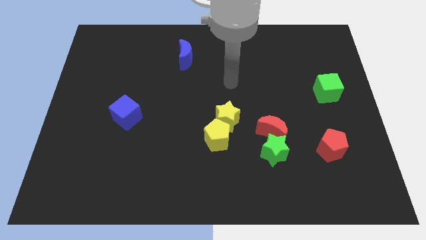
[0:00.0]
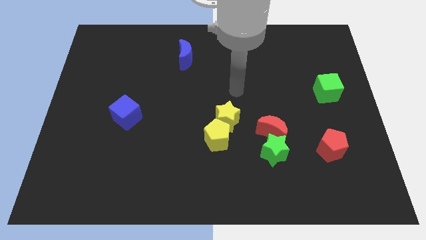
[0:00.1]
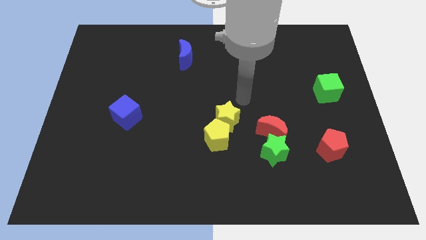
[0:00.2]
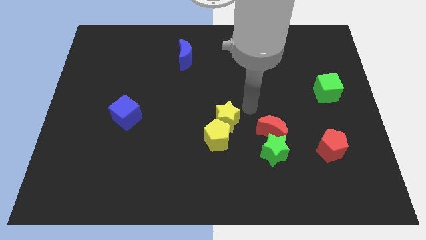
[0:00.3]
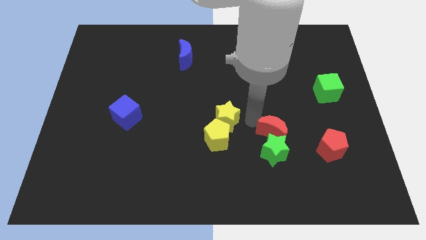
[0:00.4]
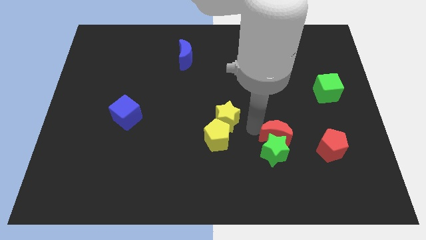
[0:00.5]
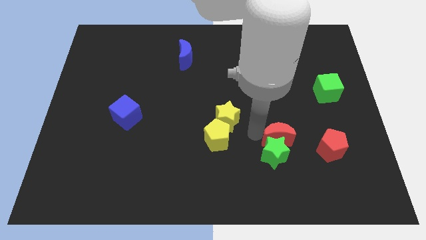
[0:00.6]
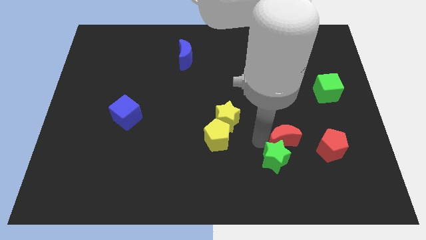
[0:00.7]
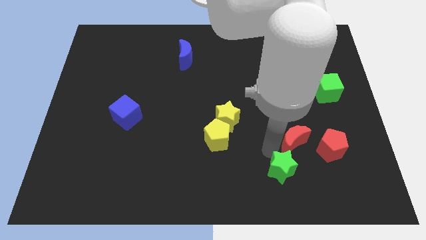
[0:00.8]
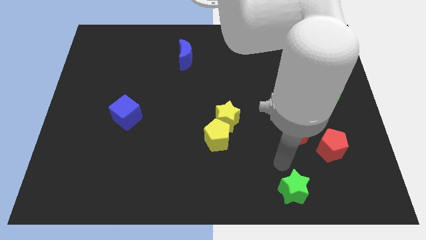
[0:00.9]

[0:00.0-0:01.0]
move the red moon away from the green star

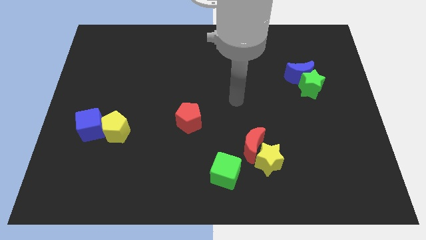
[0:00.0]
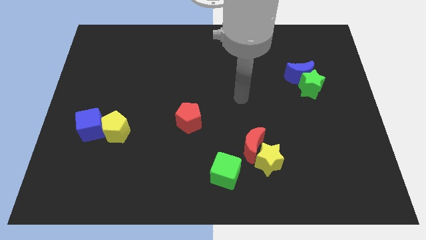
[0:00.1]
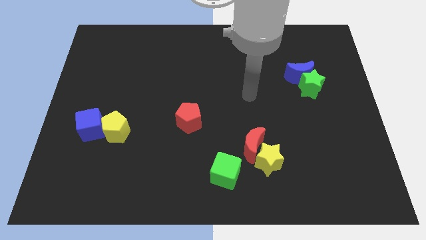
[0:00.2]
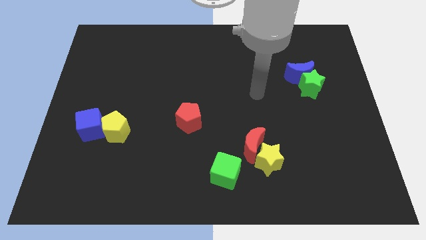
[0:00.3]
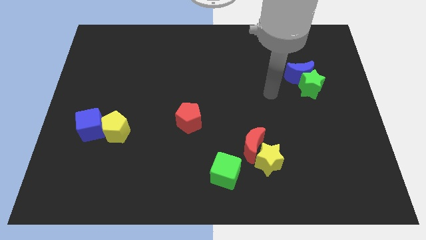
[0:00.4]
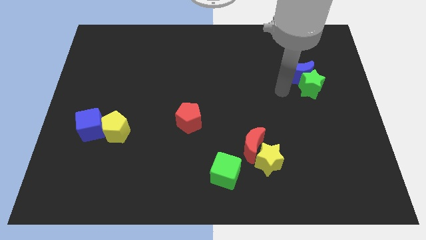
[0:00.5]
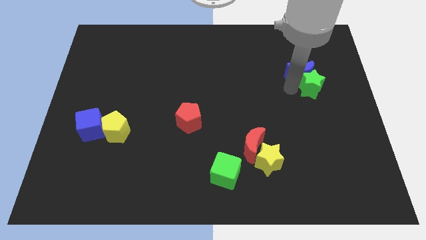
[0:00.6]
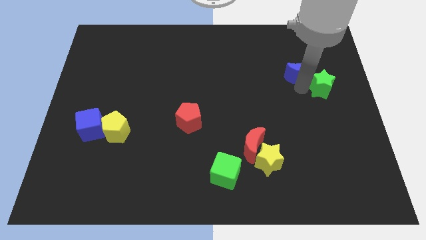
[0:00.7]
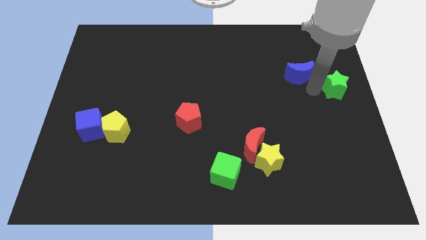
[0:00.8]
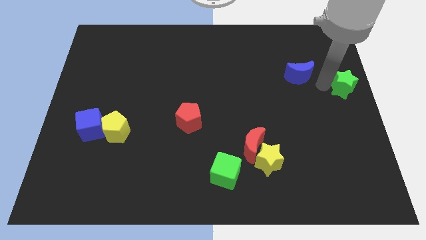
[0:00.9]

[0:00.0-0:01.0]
separate the blue moon from the green star

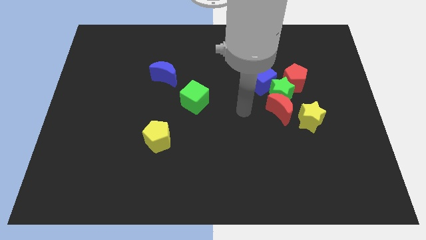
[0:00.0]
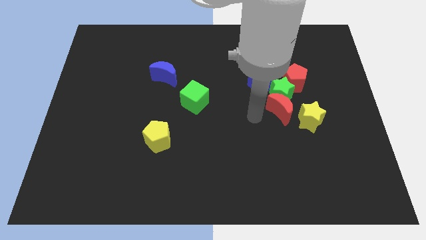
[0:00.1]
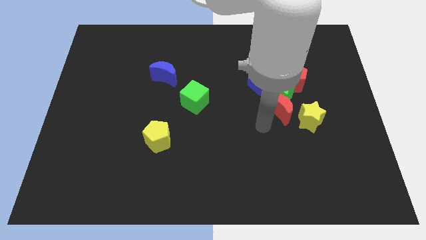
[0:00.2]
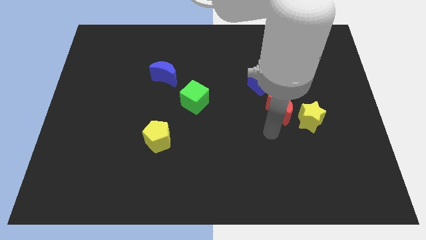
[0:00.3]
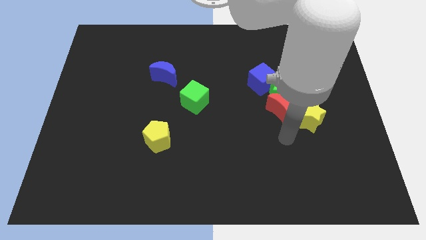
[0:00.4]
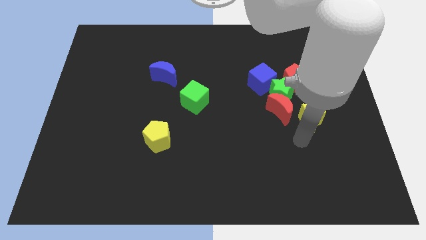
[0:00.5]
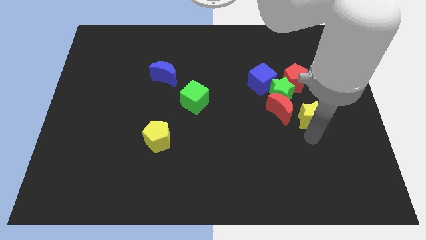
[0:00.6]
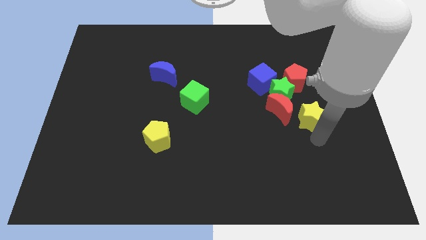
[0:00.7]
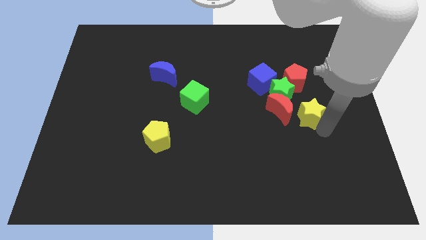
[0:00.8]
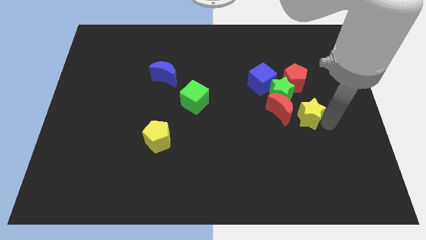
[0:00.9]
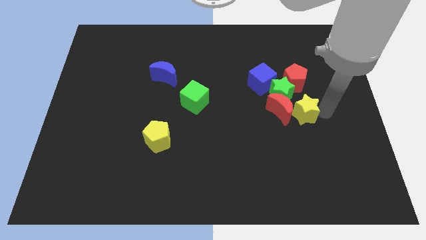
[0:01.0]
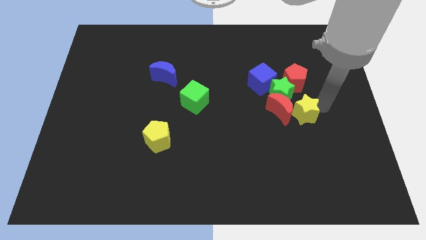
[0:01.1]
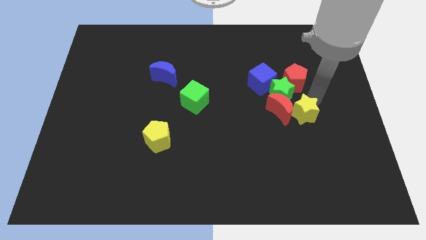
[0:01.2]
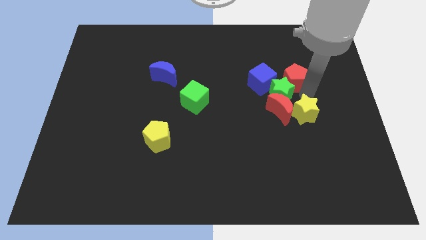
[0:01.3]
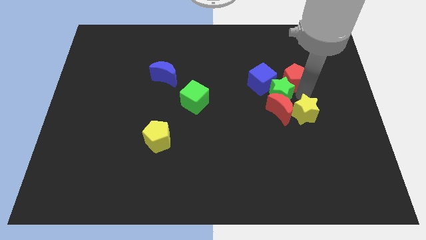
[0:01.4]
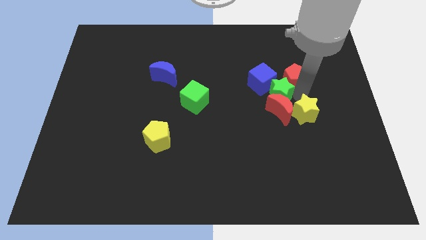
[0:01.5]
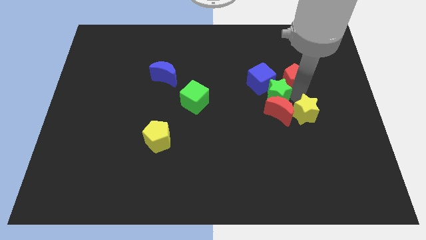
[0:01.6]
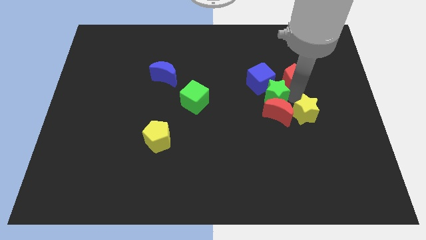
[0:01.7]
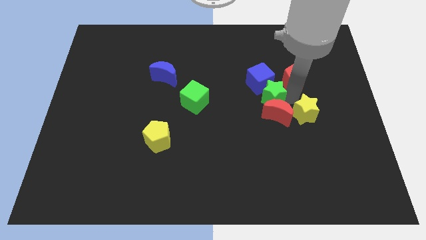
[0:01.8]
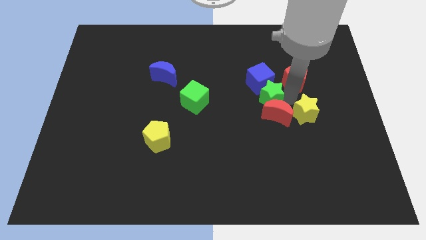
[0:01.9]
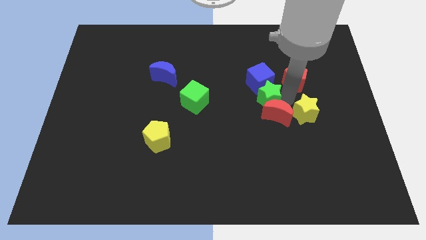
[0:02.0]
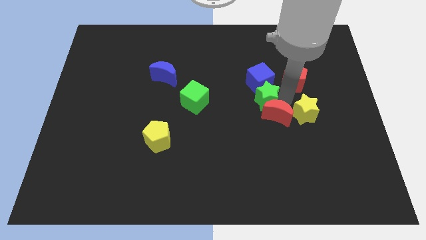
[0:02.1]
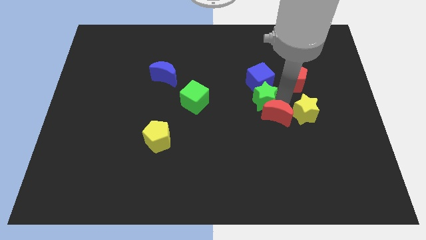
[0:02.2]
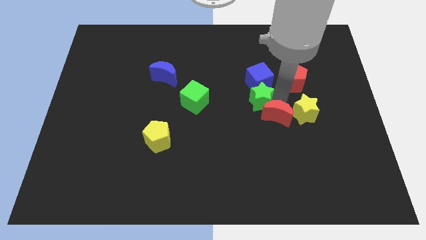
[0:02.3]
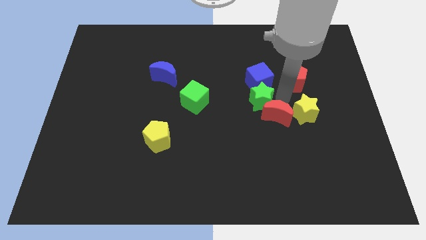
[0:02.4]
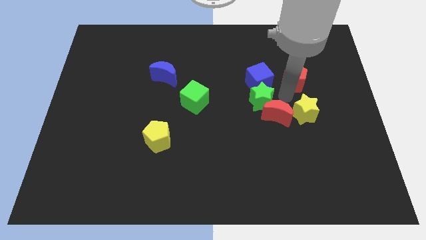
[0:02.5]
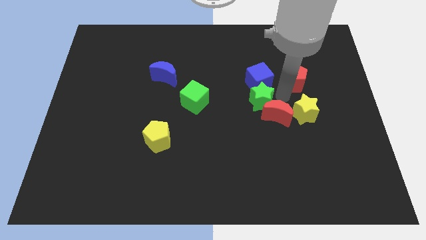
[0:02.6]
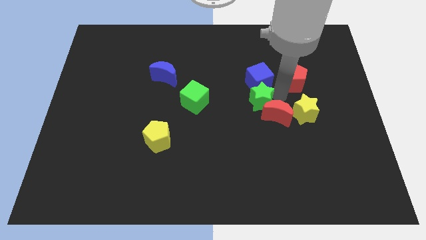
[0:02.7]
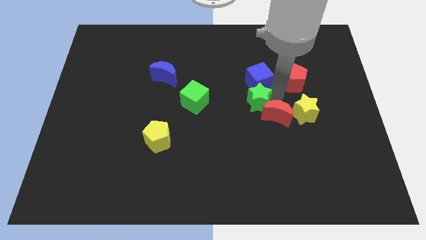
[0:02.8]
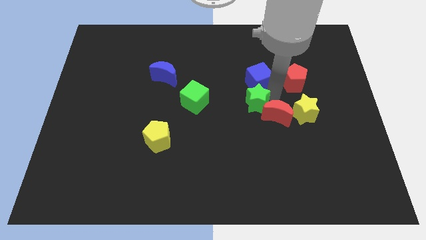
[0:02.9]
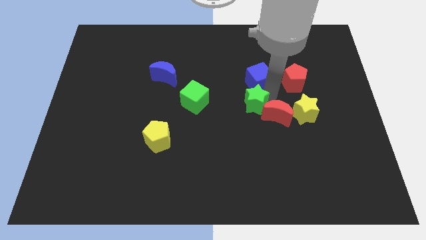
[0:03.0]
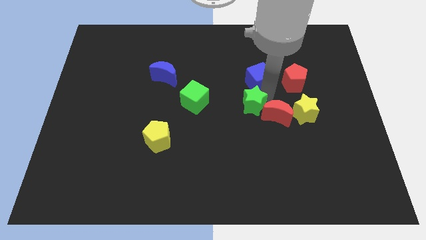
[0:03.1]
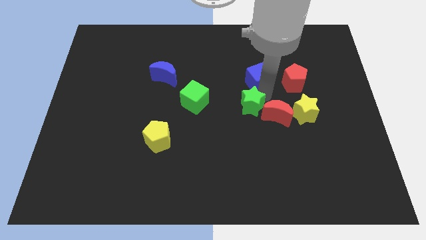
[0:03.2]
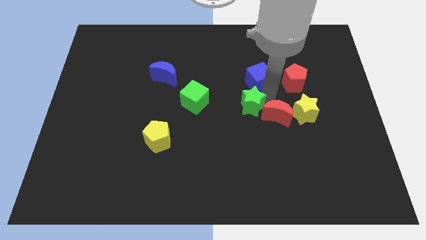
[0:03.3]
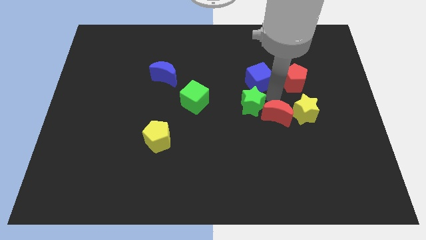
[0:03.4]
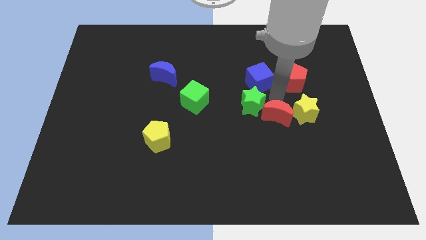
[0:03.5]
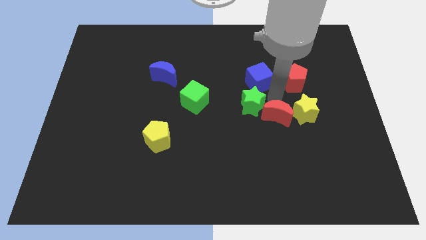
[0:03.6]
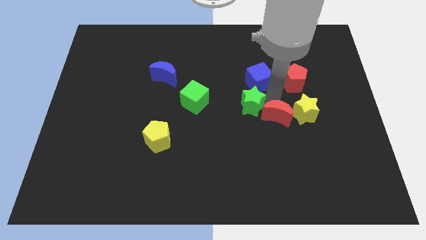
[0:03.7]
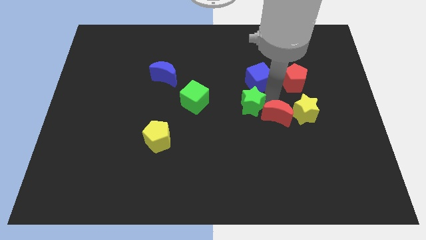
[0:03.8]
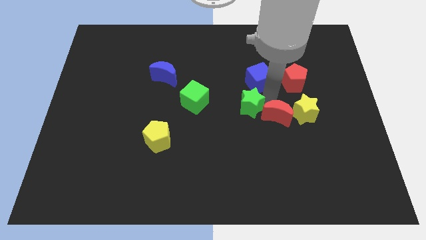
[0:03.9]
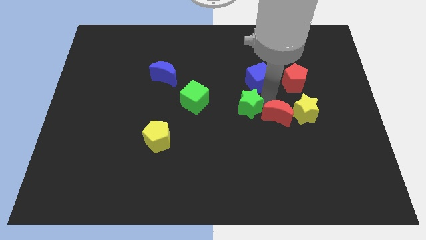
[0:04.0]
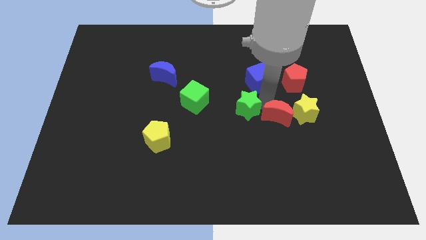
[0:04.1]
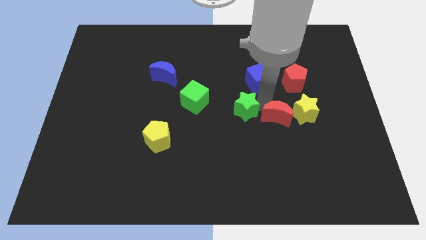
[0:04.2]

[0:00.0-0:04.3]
move the green star away from the clump

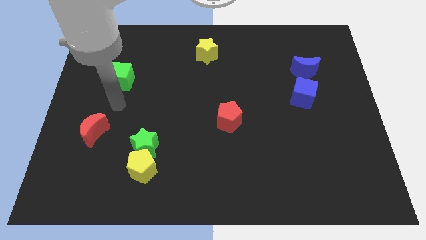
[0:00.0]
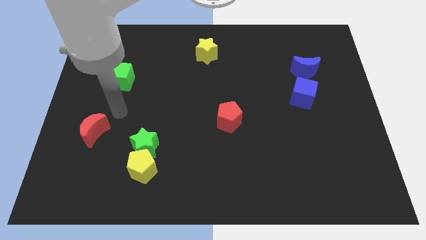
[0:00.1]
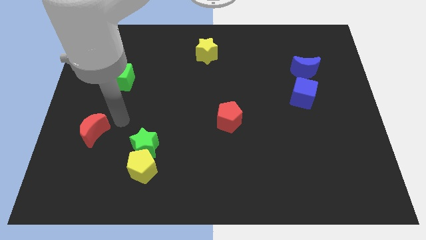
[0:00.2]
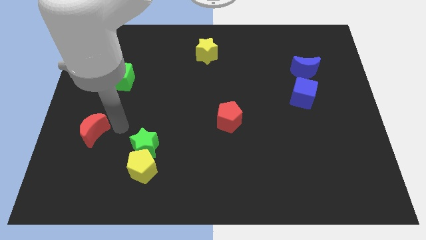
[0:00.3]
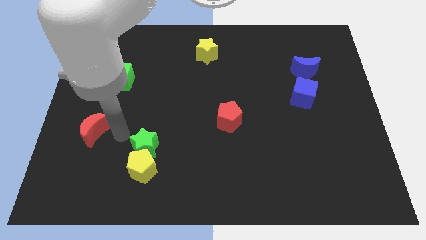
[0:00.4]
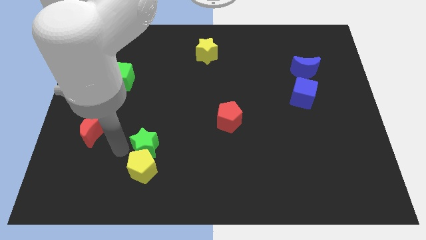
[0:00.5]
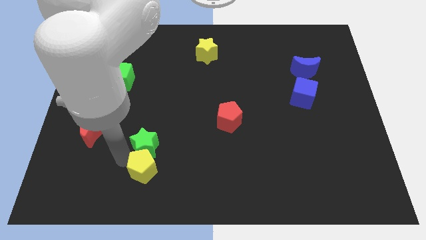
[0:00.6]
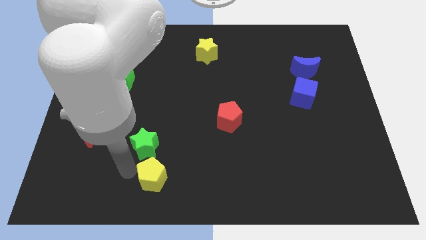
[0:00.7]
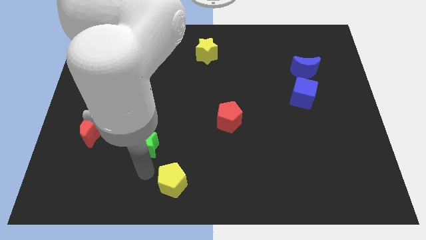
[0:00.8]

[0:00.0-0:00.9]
separate the green star from the yellow pentagon

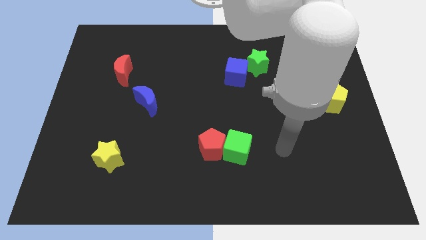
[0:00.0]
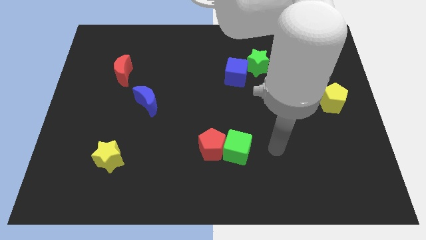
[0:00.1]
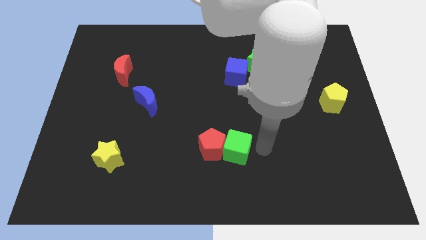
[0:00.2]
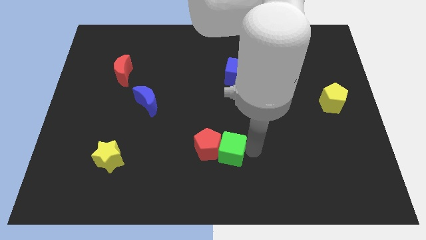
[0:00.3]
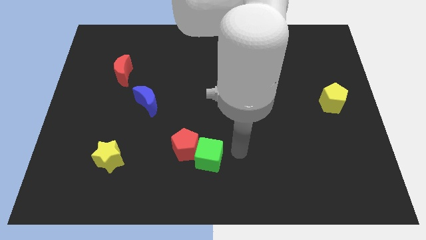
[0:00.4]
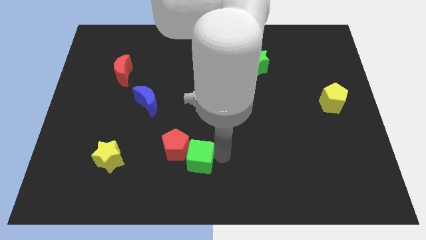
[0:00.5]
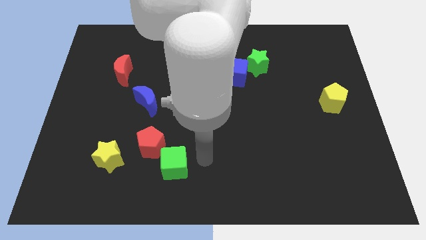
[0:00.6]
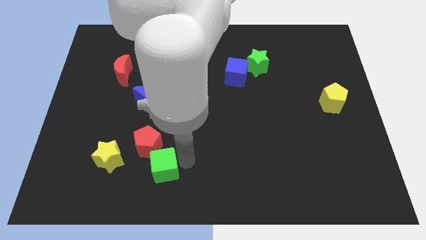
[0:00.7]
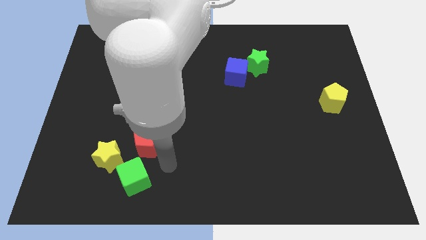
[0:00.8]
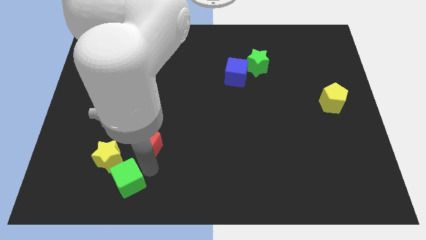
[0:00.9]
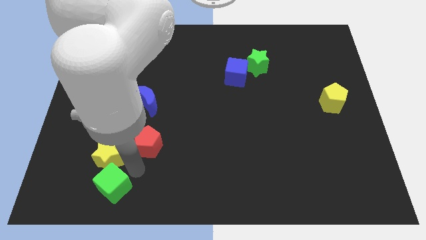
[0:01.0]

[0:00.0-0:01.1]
separate the red pentagon from the green cube

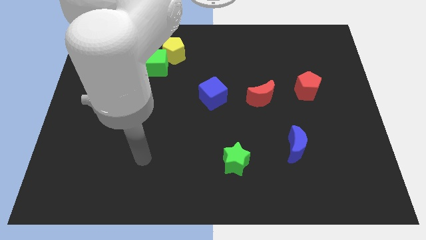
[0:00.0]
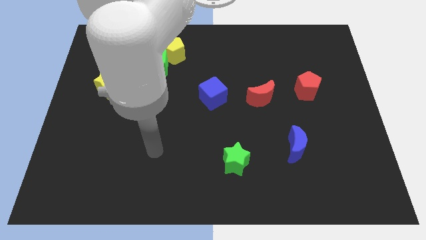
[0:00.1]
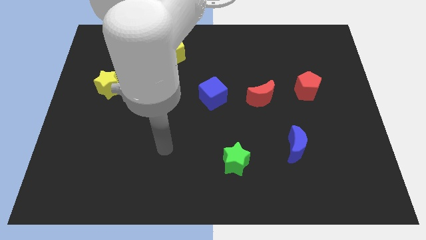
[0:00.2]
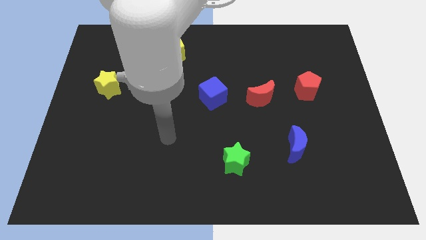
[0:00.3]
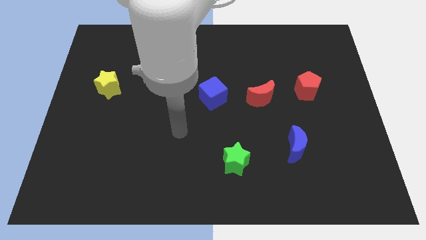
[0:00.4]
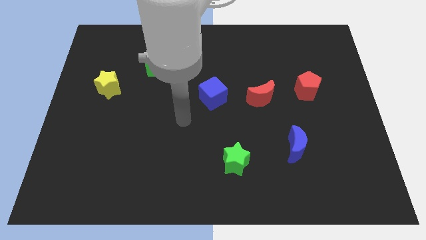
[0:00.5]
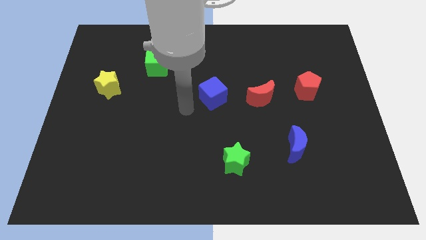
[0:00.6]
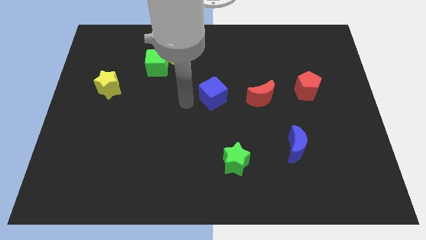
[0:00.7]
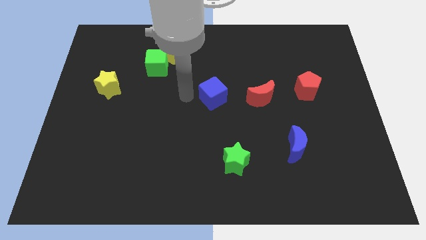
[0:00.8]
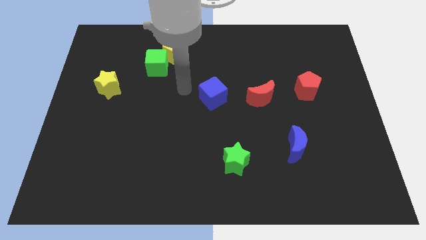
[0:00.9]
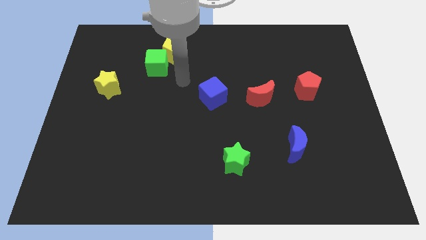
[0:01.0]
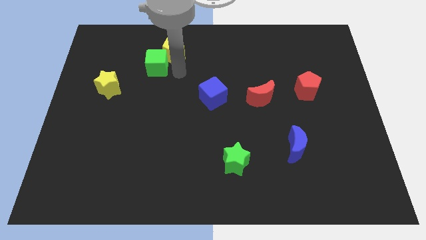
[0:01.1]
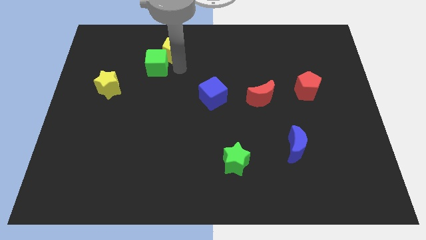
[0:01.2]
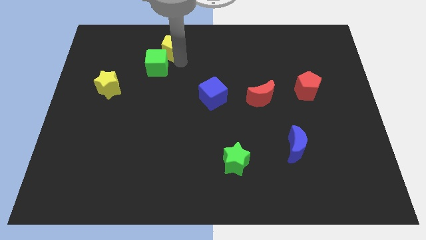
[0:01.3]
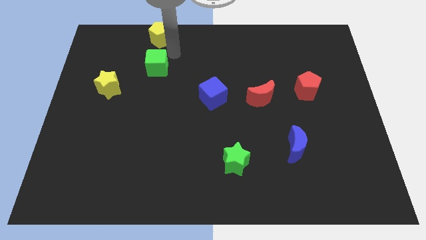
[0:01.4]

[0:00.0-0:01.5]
pull the green cube apart from the yellow pentagon
